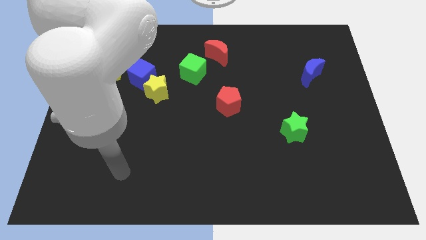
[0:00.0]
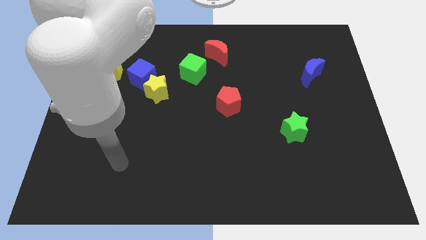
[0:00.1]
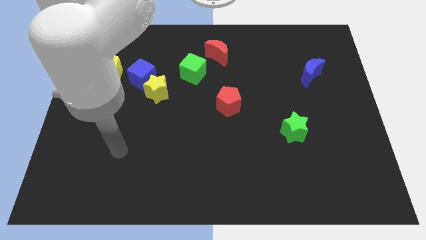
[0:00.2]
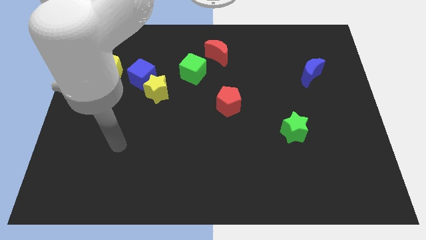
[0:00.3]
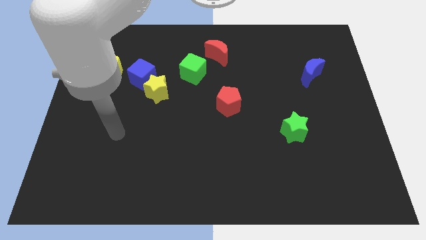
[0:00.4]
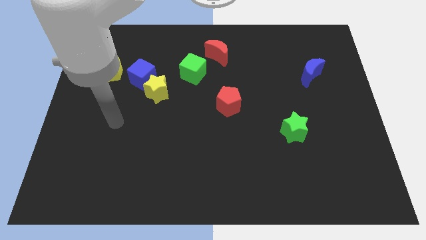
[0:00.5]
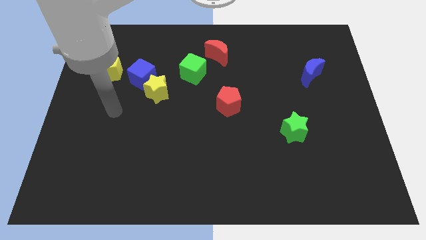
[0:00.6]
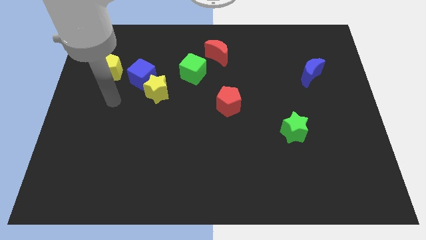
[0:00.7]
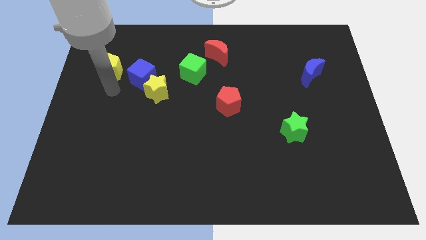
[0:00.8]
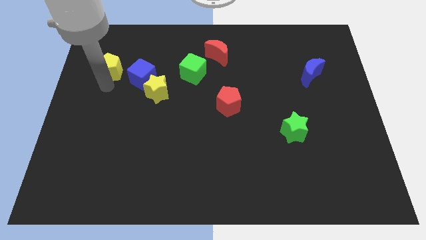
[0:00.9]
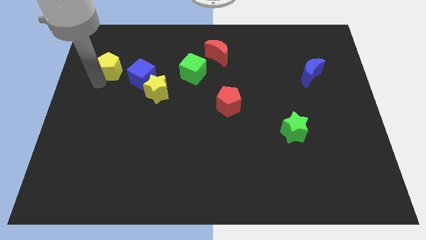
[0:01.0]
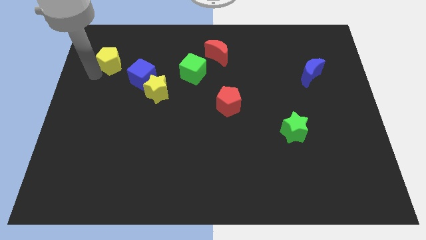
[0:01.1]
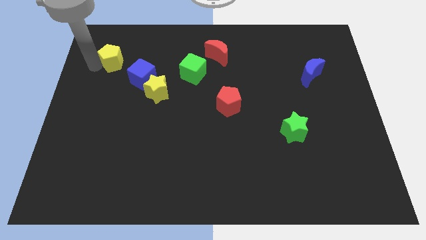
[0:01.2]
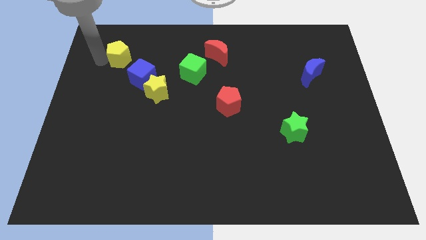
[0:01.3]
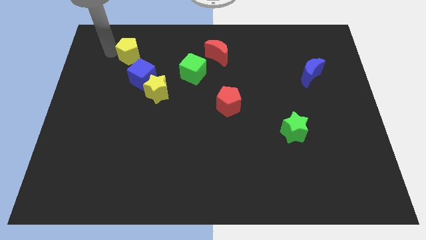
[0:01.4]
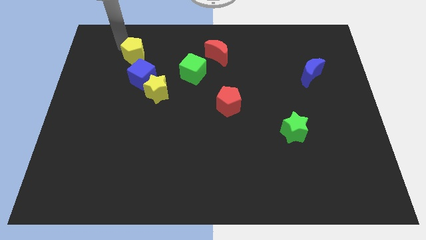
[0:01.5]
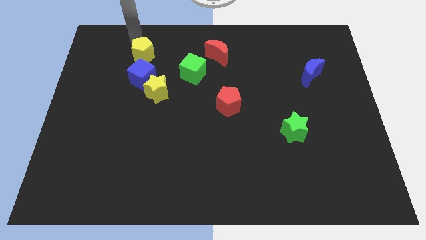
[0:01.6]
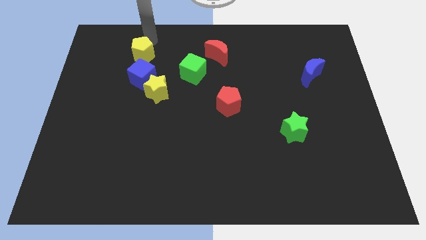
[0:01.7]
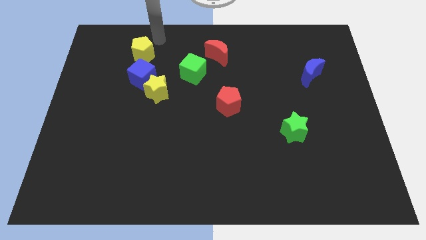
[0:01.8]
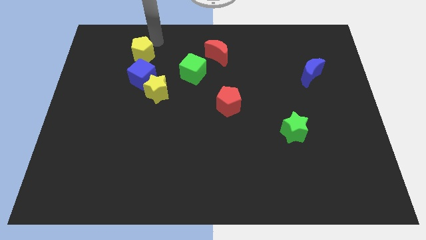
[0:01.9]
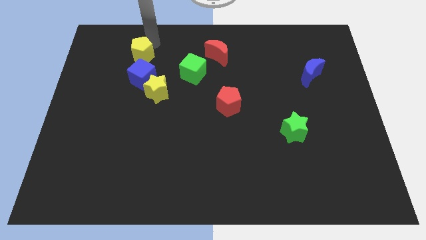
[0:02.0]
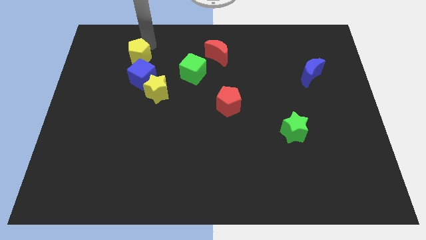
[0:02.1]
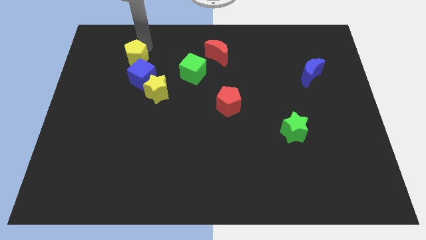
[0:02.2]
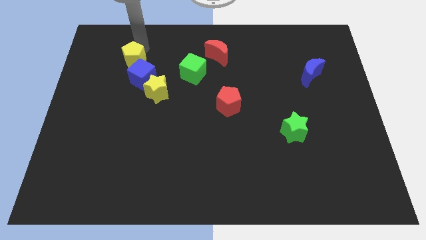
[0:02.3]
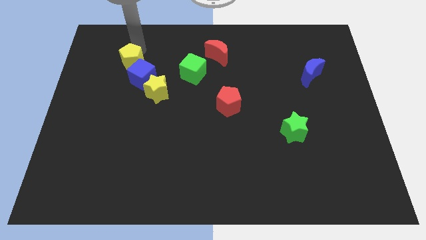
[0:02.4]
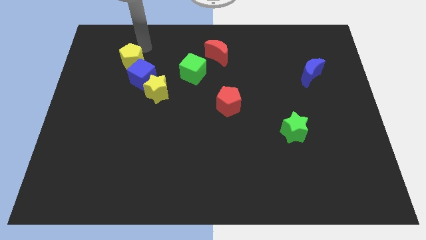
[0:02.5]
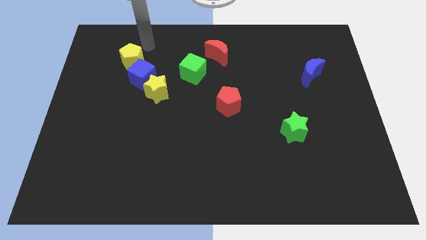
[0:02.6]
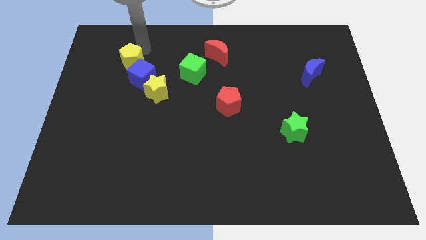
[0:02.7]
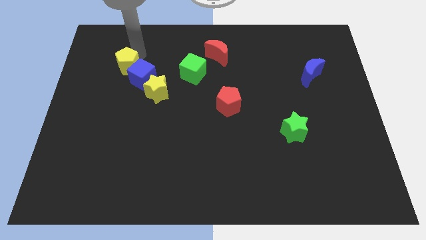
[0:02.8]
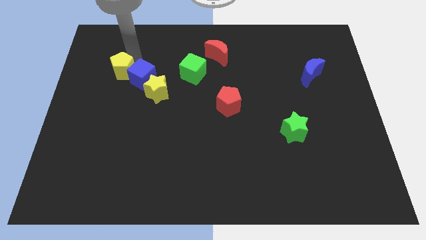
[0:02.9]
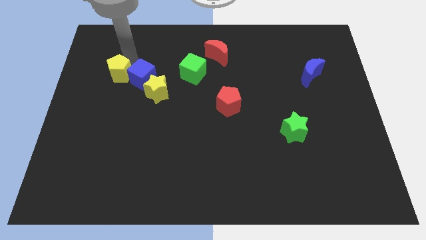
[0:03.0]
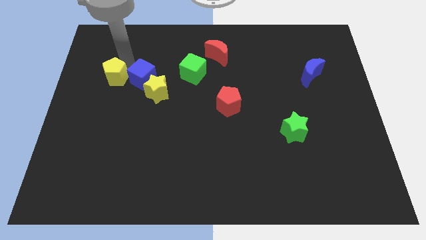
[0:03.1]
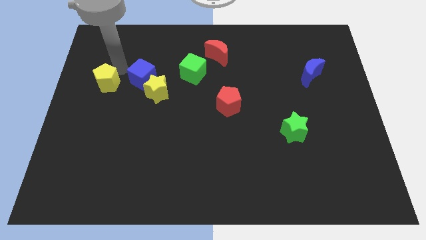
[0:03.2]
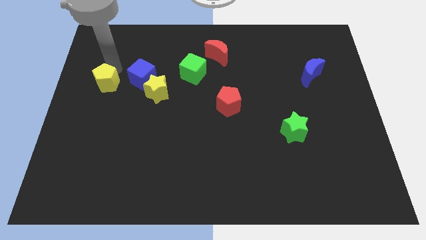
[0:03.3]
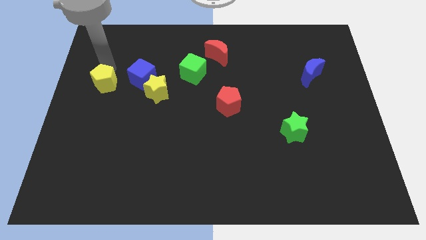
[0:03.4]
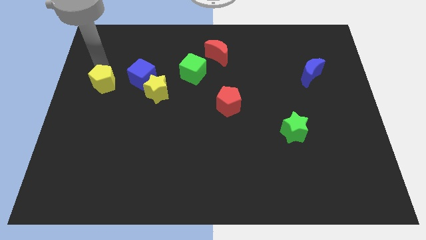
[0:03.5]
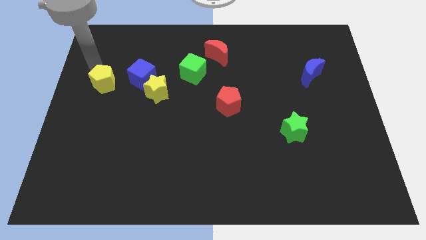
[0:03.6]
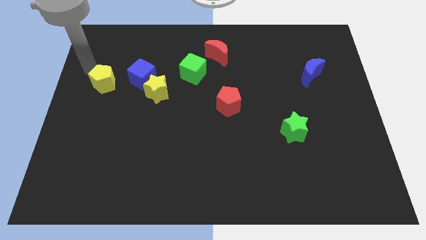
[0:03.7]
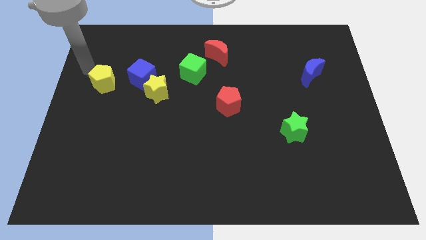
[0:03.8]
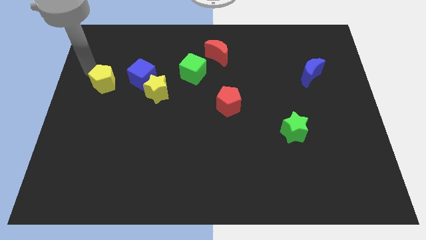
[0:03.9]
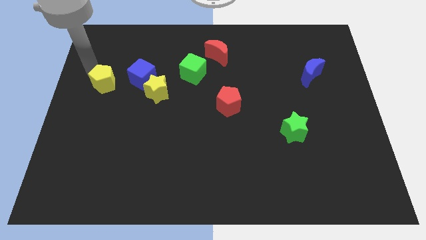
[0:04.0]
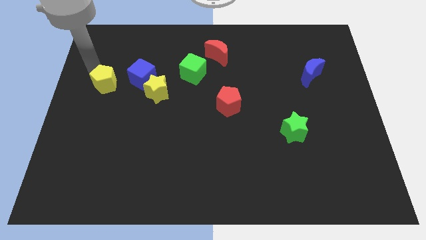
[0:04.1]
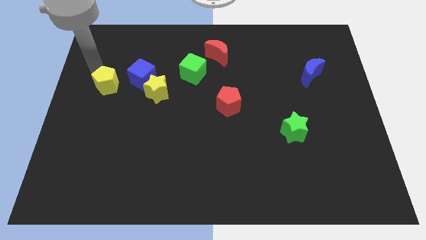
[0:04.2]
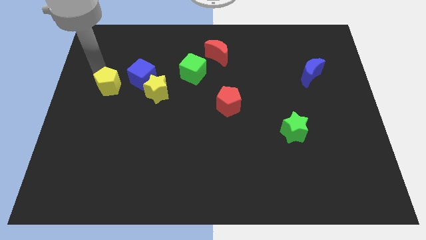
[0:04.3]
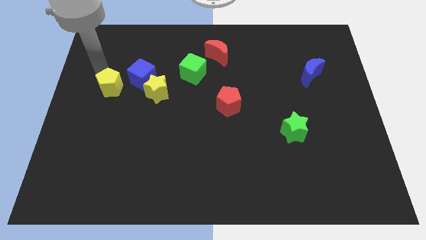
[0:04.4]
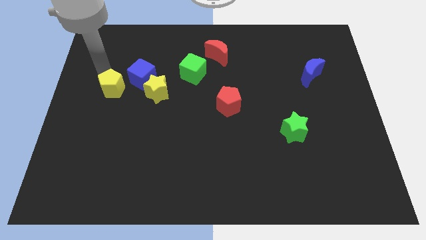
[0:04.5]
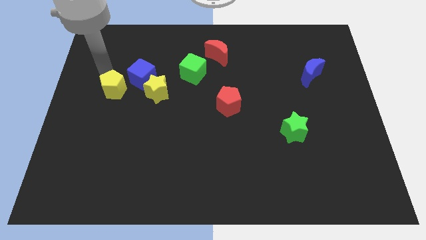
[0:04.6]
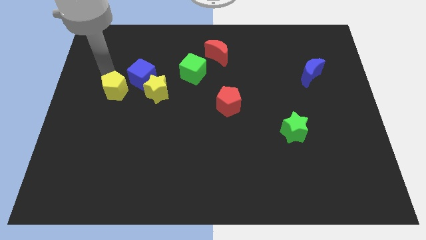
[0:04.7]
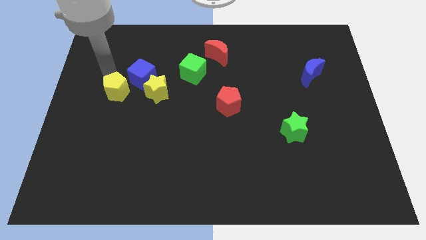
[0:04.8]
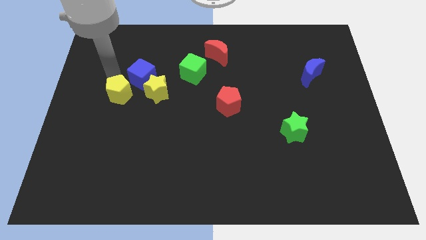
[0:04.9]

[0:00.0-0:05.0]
slide the yellow pentagon a bit down and right

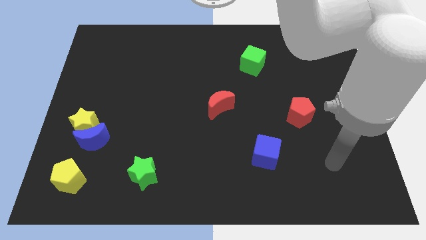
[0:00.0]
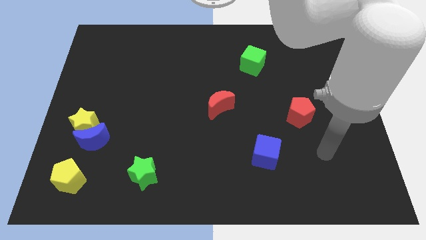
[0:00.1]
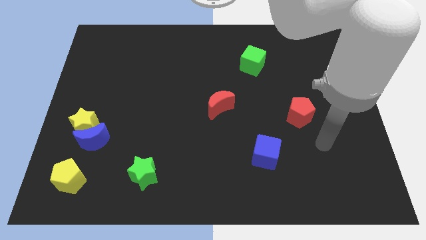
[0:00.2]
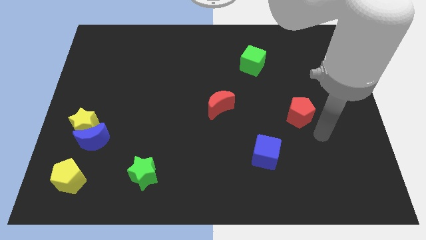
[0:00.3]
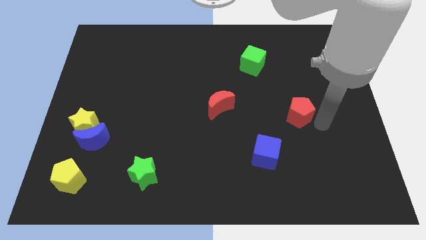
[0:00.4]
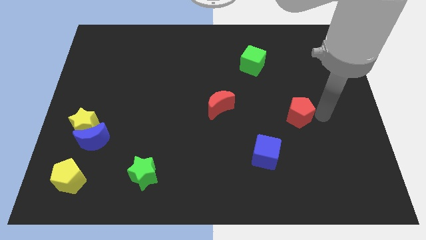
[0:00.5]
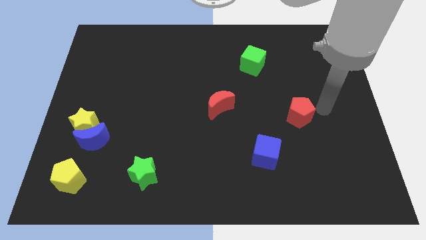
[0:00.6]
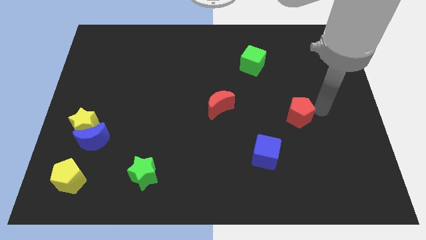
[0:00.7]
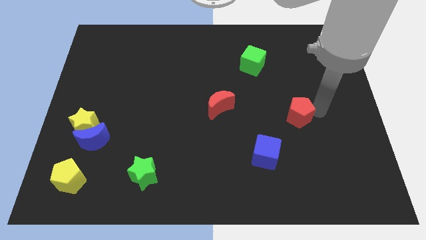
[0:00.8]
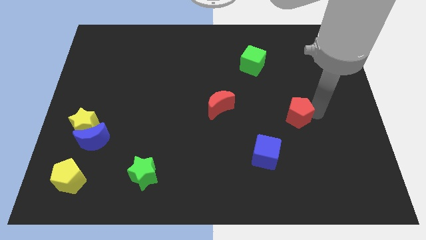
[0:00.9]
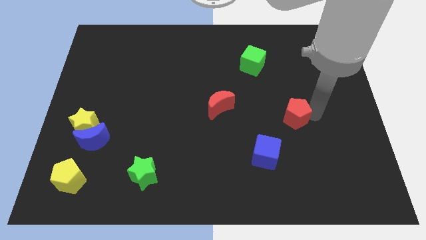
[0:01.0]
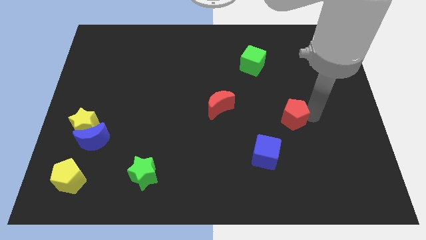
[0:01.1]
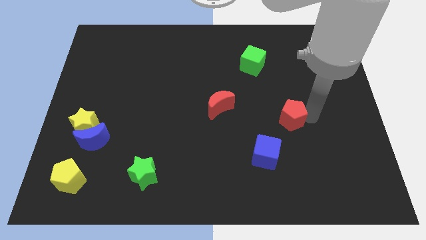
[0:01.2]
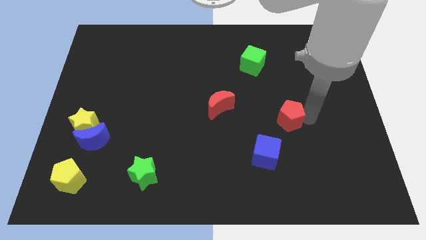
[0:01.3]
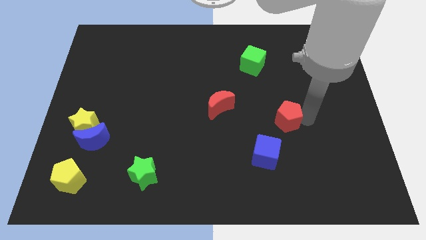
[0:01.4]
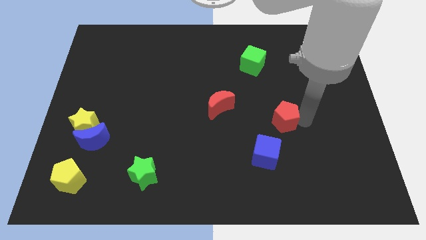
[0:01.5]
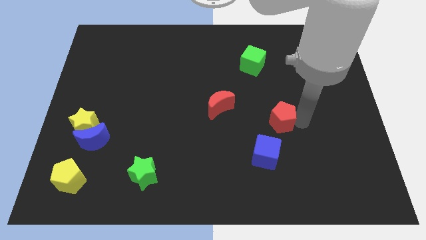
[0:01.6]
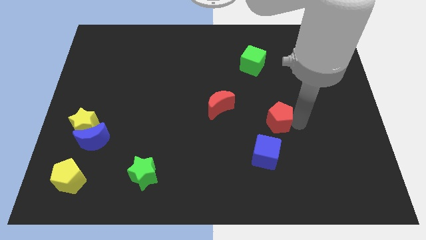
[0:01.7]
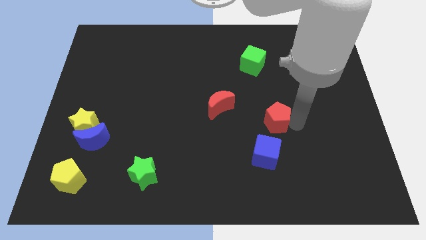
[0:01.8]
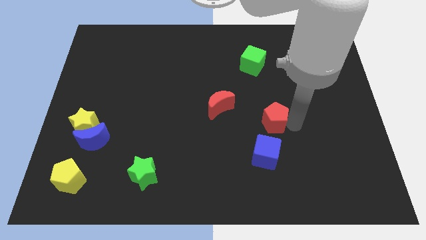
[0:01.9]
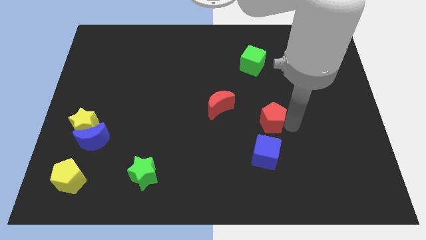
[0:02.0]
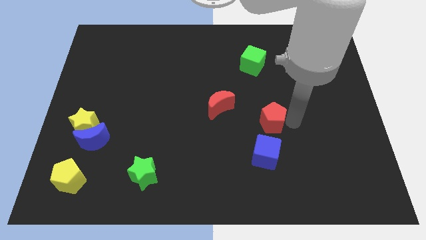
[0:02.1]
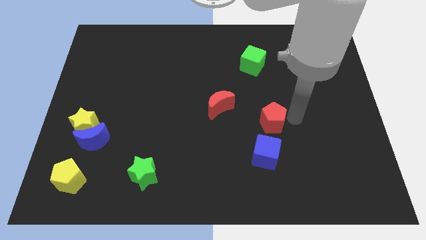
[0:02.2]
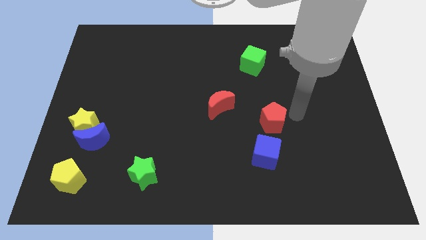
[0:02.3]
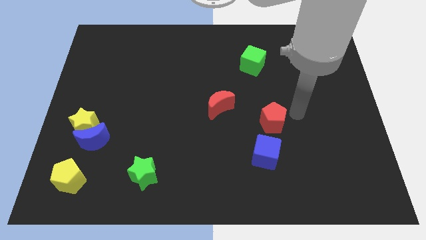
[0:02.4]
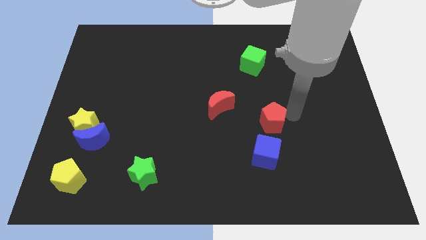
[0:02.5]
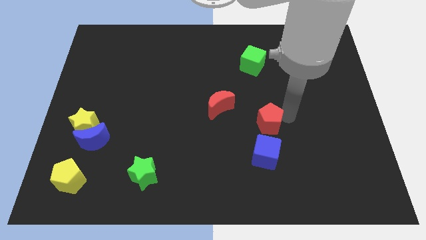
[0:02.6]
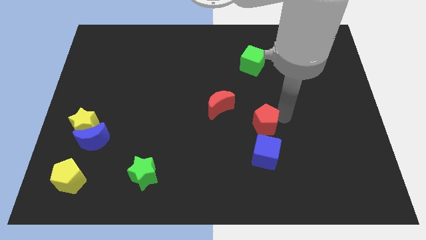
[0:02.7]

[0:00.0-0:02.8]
slide the red pentagon a bit down and then left
